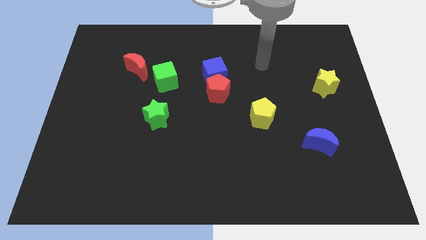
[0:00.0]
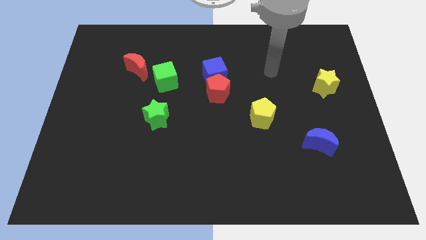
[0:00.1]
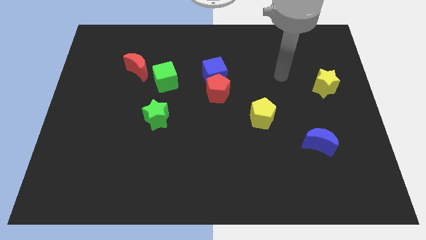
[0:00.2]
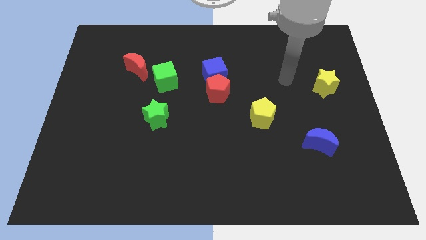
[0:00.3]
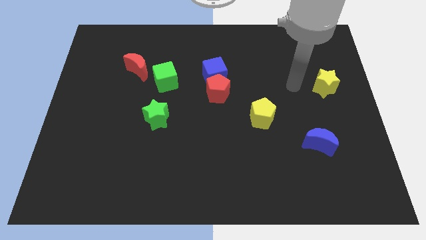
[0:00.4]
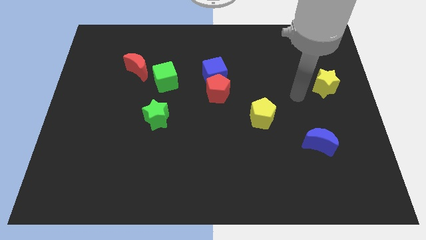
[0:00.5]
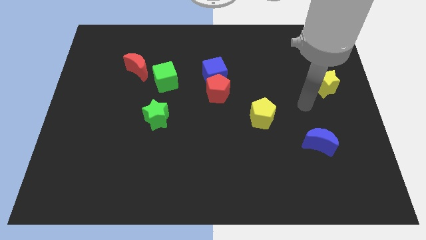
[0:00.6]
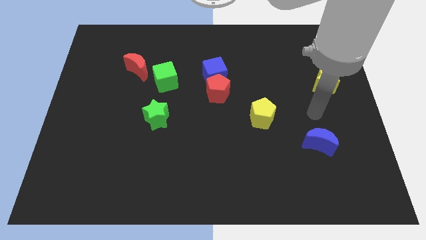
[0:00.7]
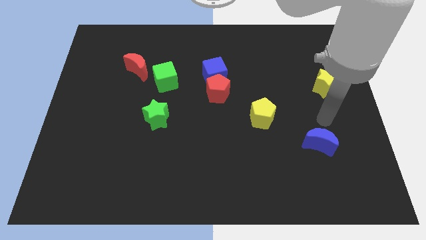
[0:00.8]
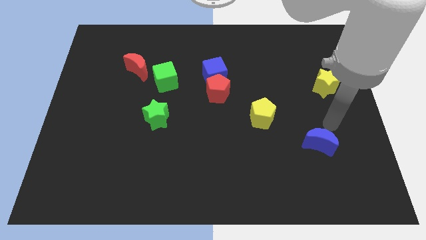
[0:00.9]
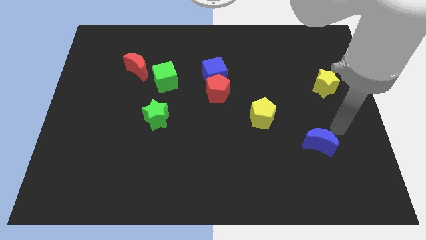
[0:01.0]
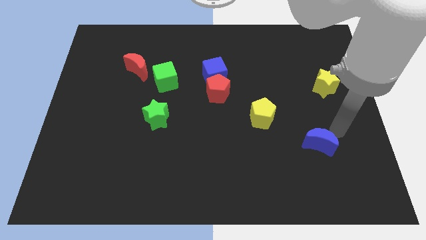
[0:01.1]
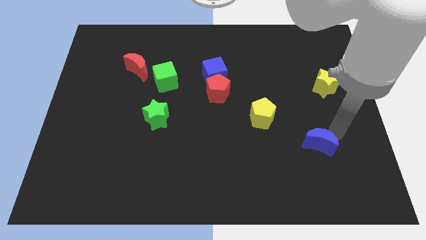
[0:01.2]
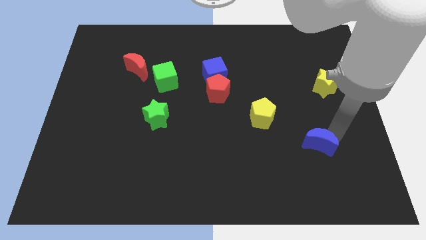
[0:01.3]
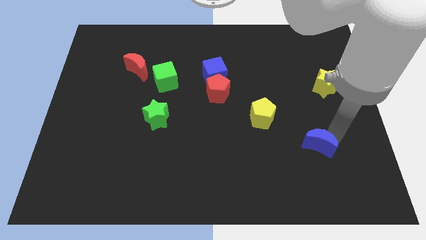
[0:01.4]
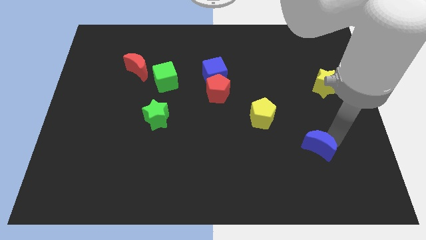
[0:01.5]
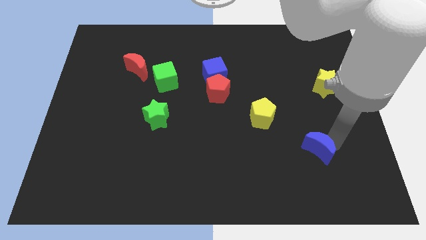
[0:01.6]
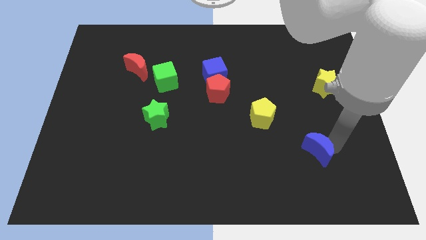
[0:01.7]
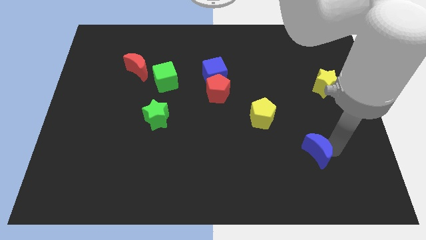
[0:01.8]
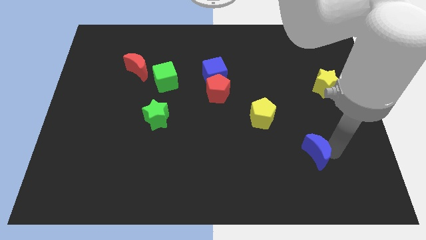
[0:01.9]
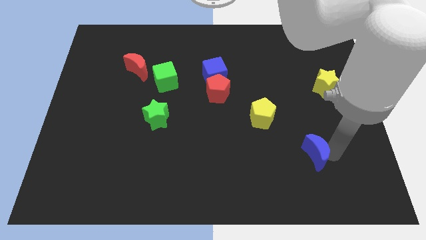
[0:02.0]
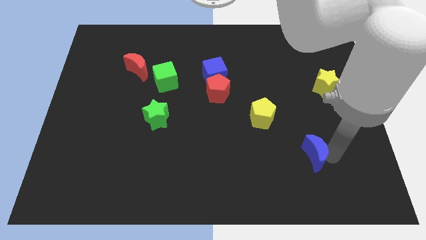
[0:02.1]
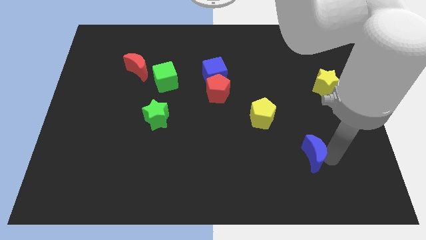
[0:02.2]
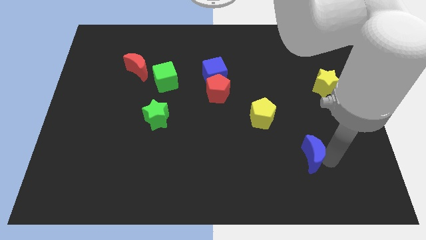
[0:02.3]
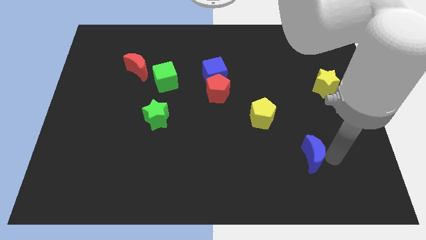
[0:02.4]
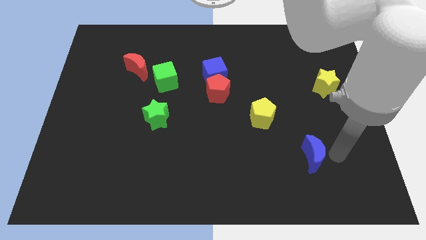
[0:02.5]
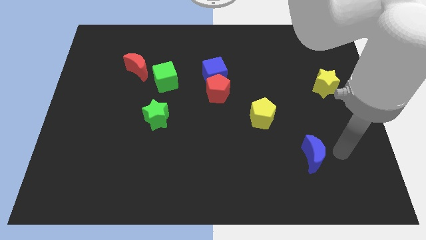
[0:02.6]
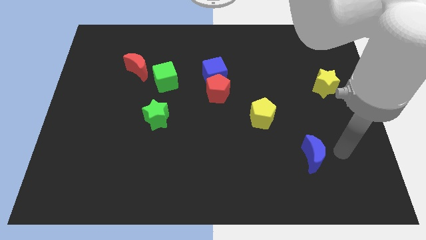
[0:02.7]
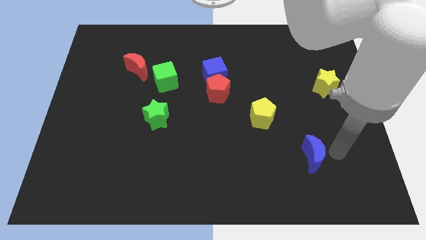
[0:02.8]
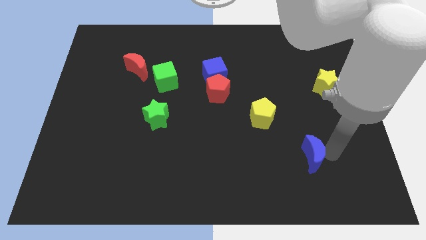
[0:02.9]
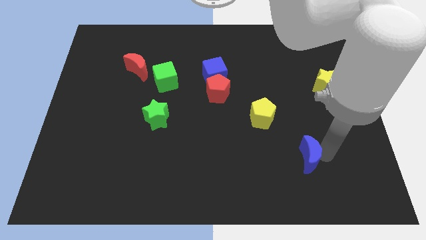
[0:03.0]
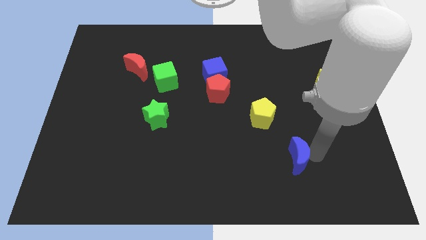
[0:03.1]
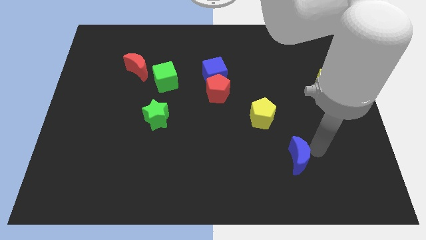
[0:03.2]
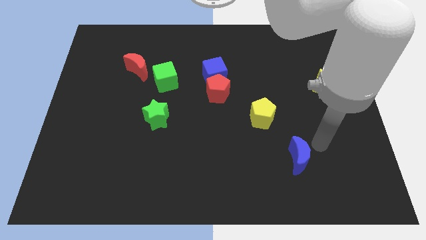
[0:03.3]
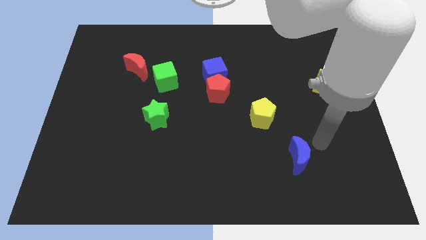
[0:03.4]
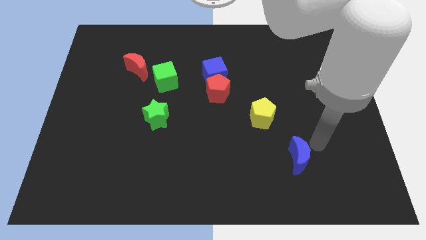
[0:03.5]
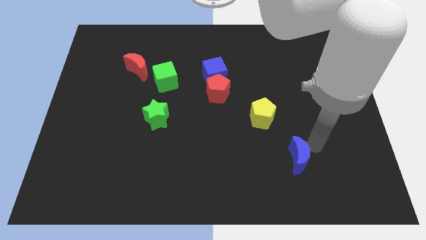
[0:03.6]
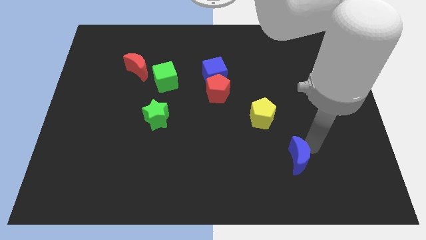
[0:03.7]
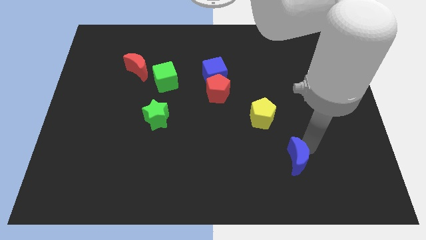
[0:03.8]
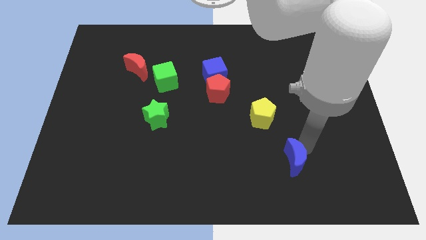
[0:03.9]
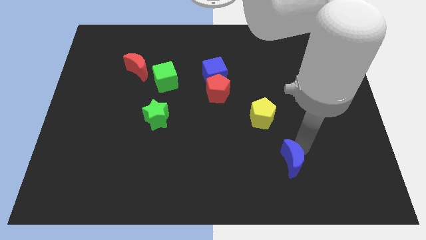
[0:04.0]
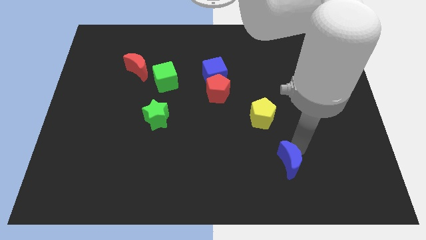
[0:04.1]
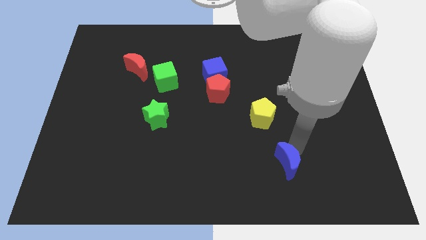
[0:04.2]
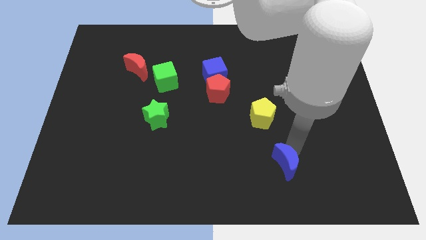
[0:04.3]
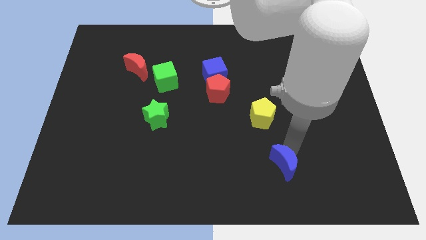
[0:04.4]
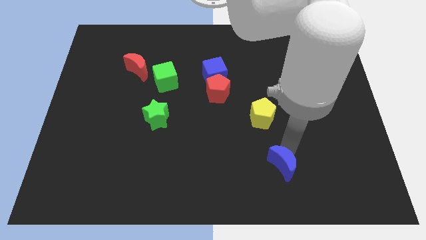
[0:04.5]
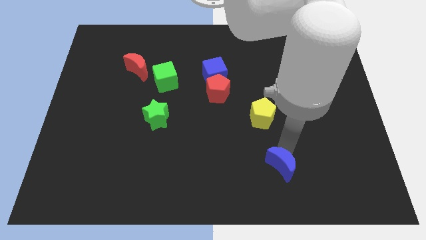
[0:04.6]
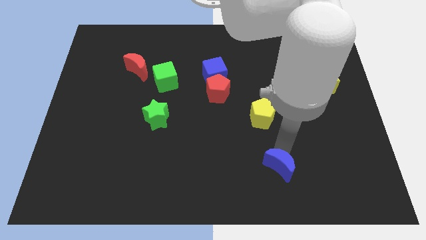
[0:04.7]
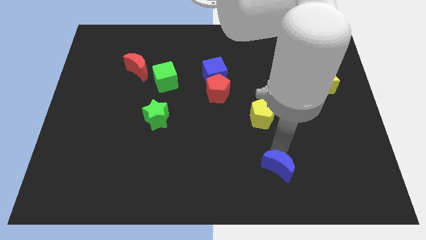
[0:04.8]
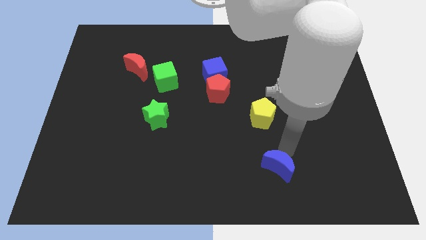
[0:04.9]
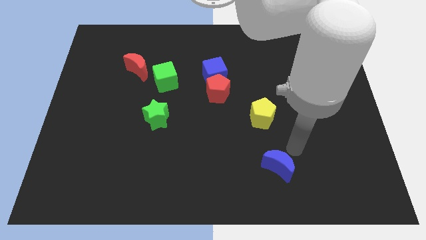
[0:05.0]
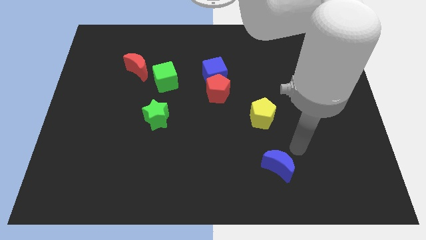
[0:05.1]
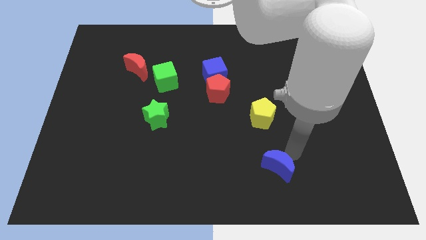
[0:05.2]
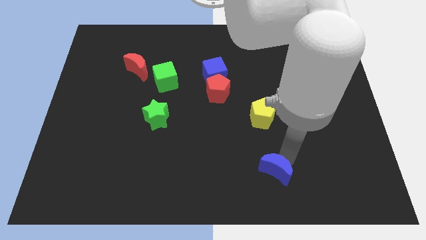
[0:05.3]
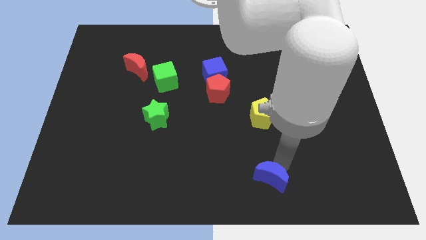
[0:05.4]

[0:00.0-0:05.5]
put the blue moon to the bottom
